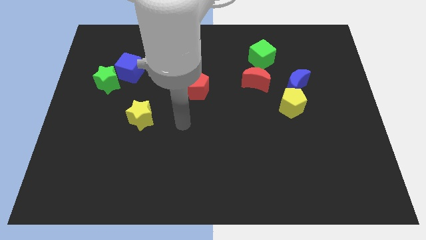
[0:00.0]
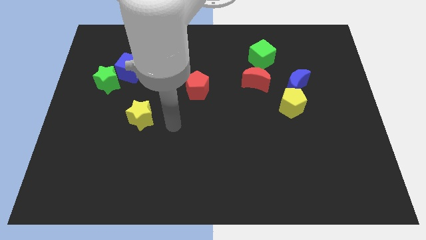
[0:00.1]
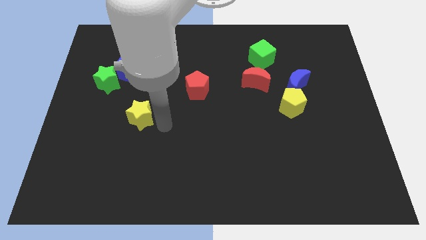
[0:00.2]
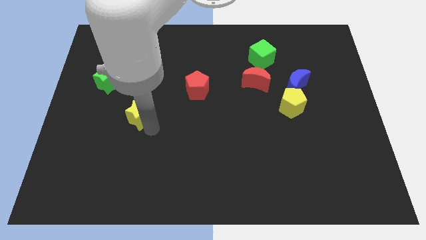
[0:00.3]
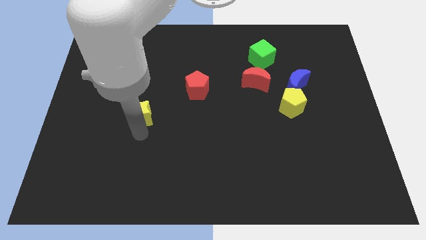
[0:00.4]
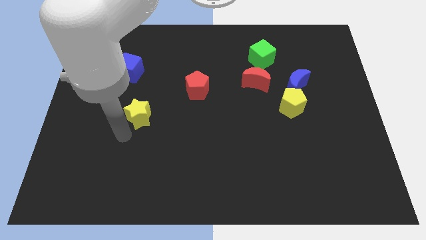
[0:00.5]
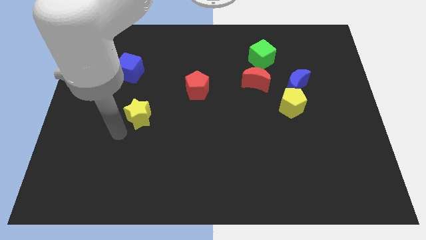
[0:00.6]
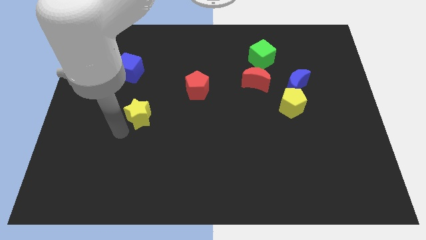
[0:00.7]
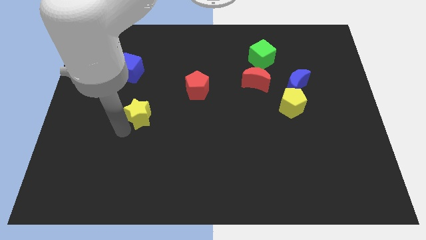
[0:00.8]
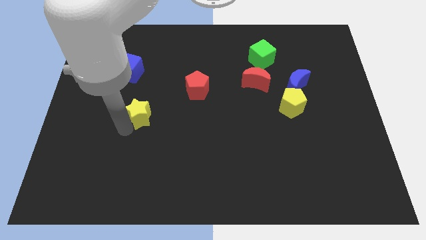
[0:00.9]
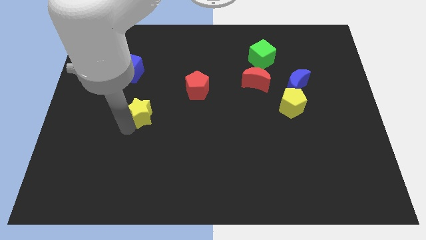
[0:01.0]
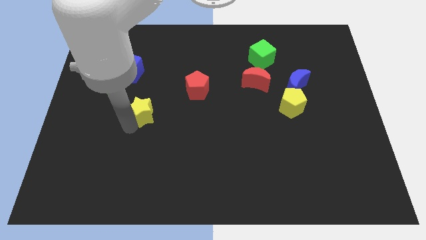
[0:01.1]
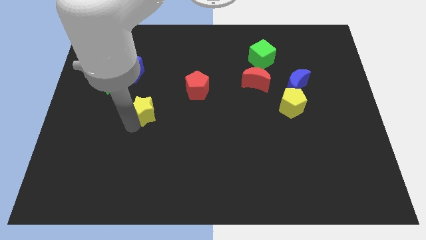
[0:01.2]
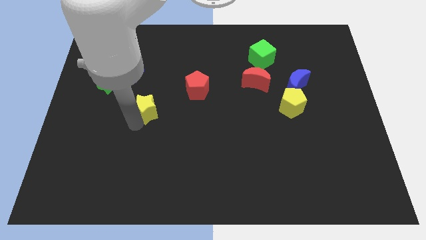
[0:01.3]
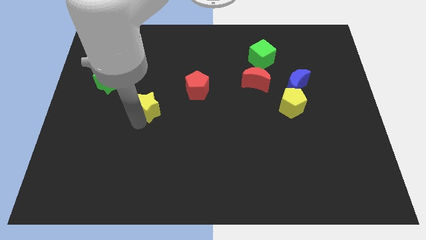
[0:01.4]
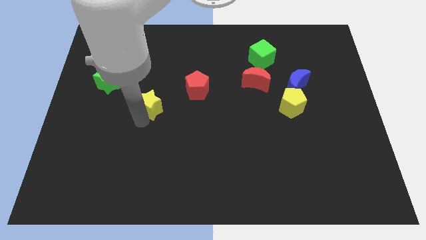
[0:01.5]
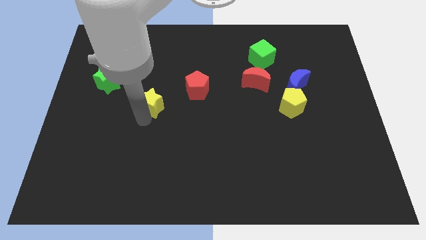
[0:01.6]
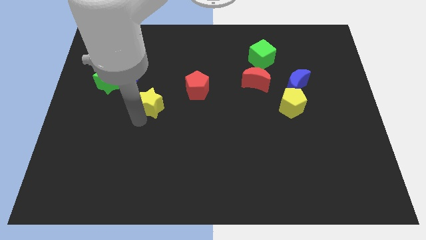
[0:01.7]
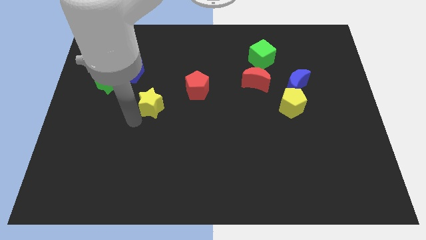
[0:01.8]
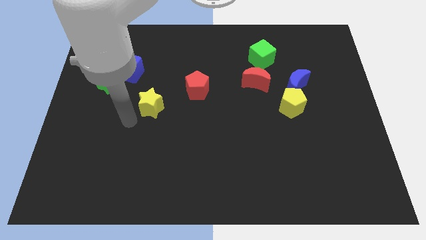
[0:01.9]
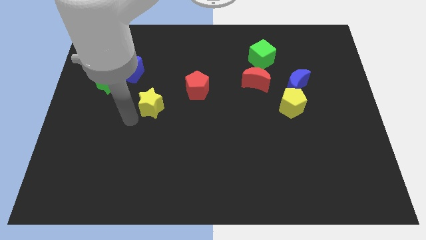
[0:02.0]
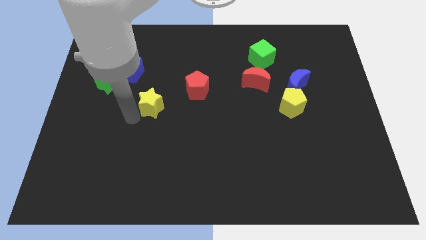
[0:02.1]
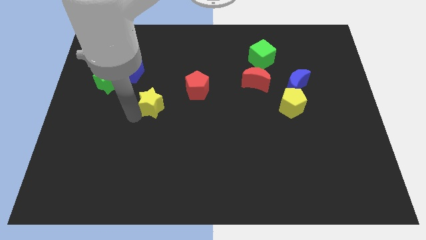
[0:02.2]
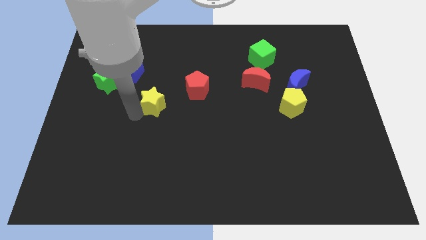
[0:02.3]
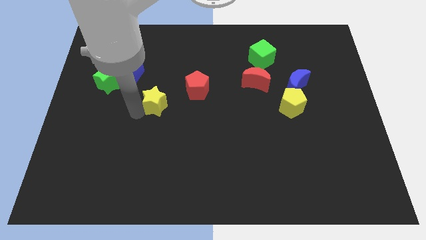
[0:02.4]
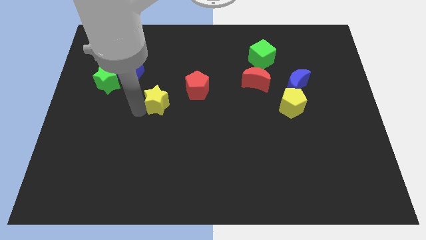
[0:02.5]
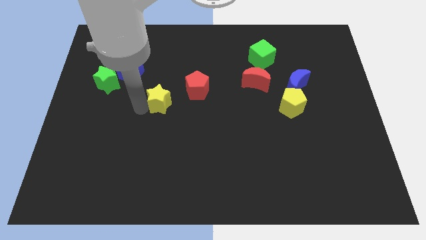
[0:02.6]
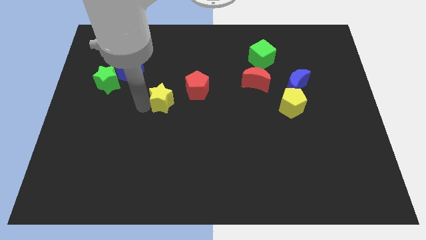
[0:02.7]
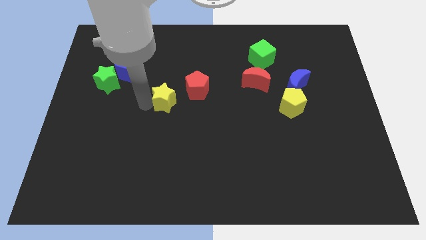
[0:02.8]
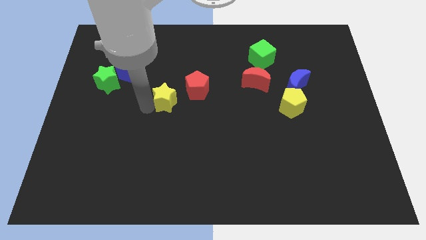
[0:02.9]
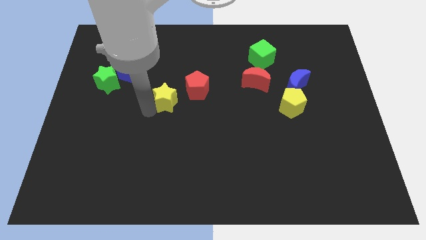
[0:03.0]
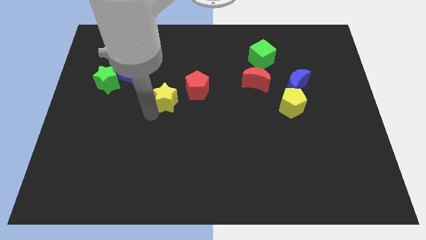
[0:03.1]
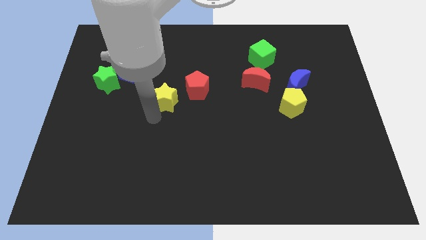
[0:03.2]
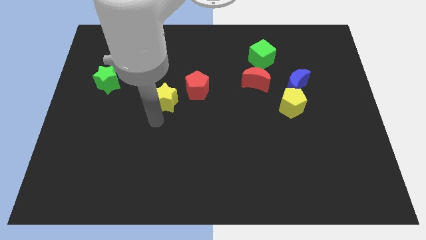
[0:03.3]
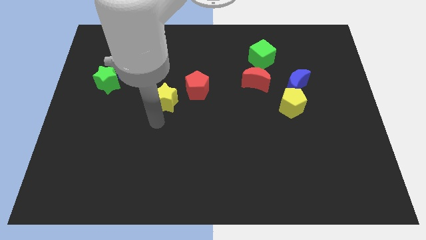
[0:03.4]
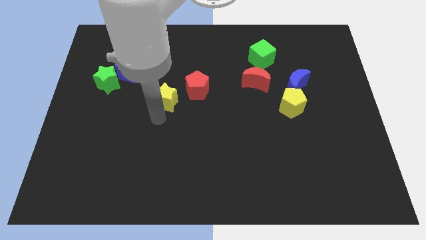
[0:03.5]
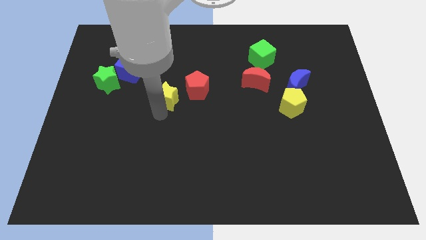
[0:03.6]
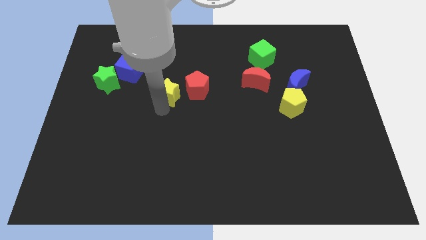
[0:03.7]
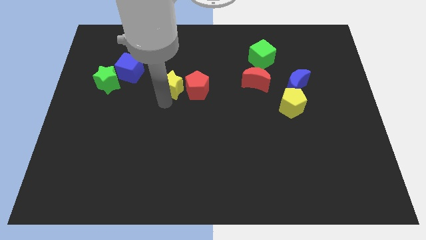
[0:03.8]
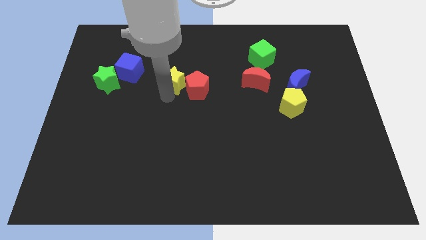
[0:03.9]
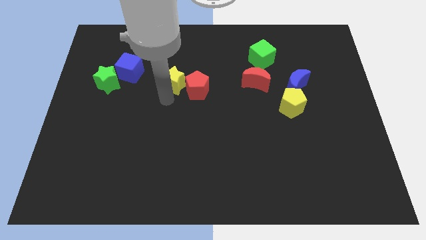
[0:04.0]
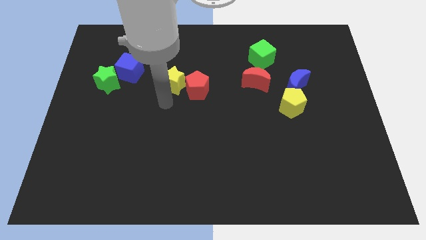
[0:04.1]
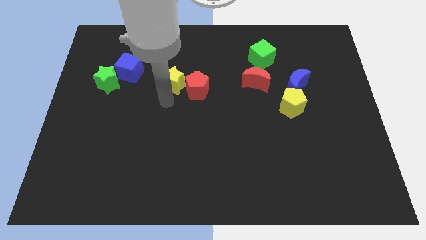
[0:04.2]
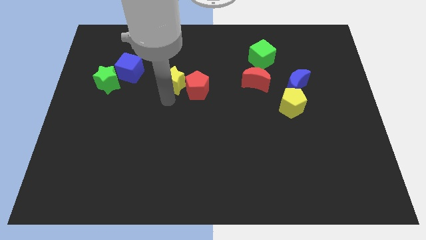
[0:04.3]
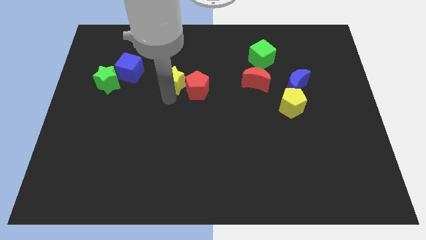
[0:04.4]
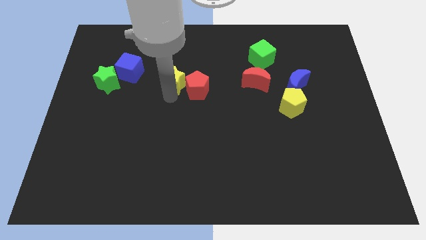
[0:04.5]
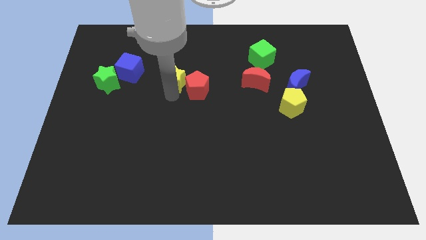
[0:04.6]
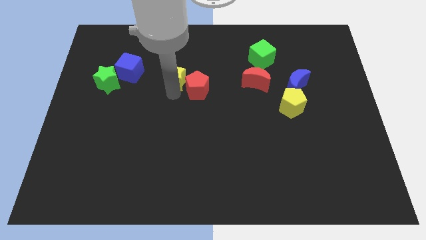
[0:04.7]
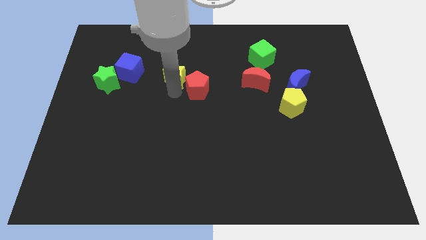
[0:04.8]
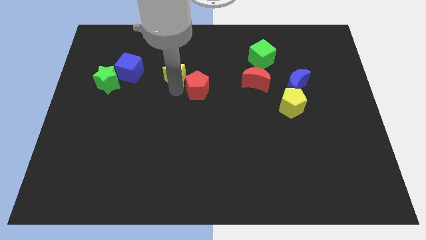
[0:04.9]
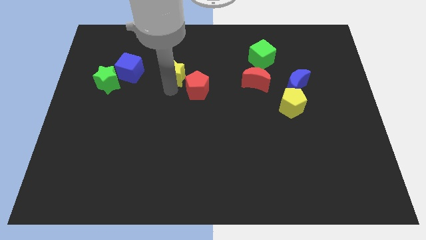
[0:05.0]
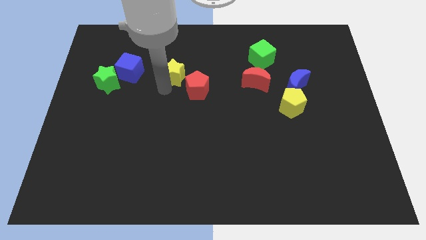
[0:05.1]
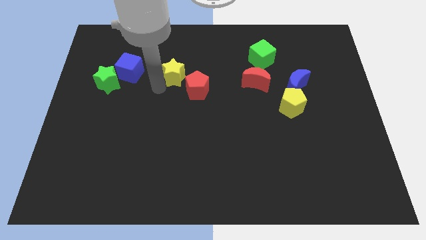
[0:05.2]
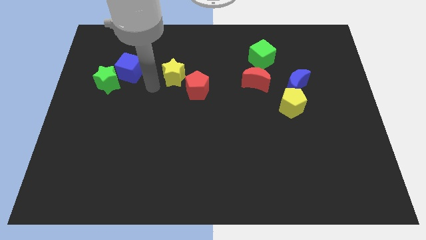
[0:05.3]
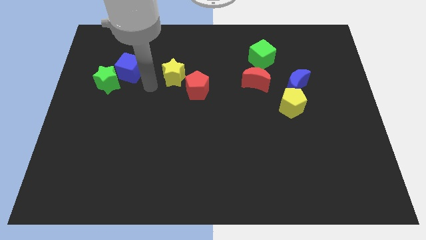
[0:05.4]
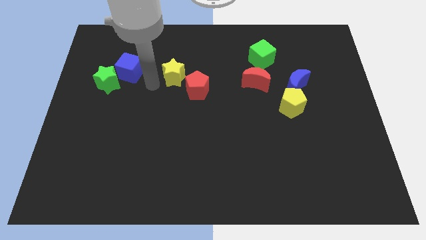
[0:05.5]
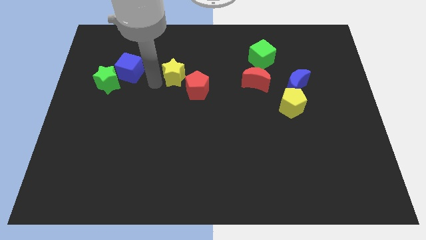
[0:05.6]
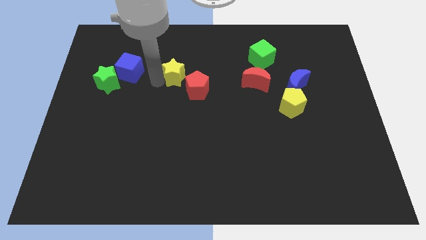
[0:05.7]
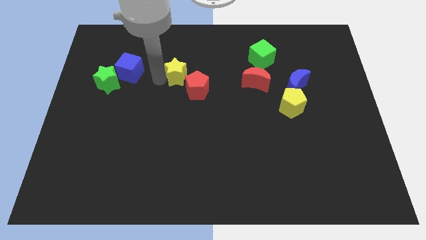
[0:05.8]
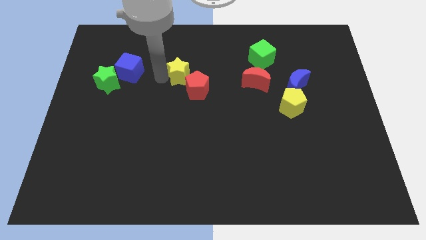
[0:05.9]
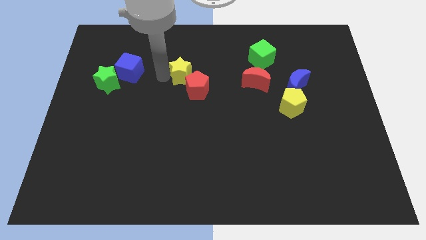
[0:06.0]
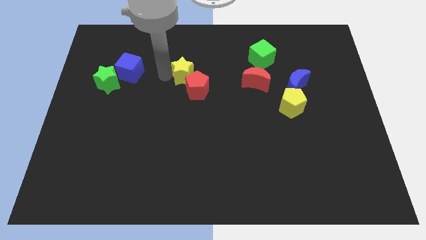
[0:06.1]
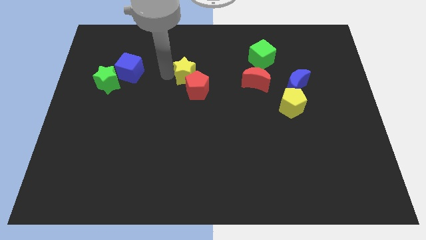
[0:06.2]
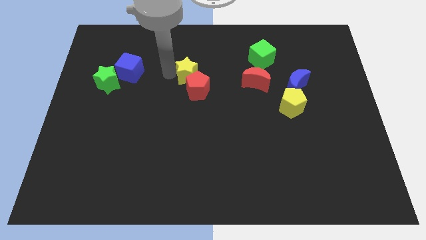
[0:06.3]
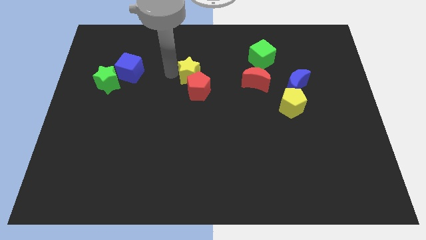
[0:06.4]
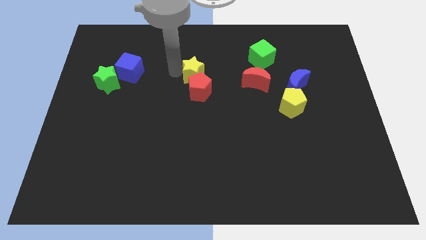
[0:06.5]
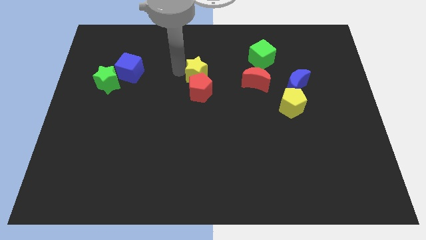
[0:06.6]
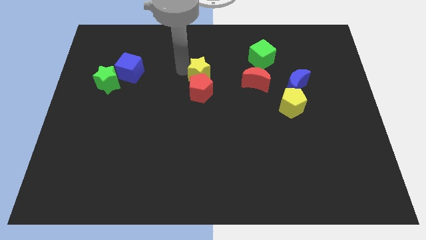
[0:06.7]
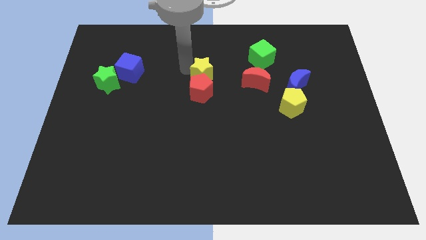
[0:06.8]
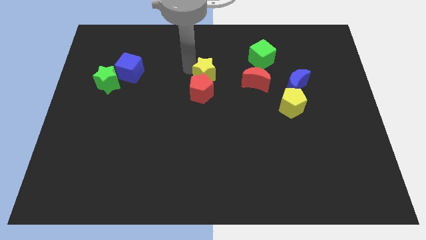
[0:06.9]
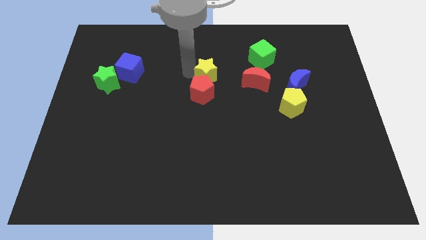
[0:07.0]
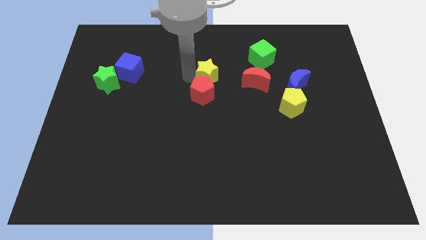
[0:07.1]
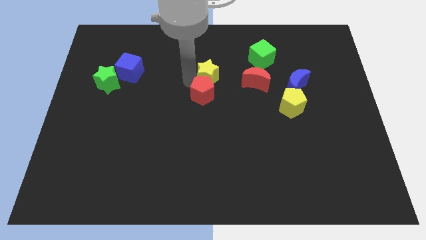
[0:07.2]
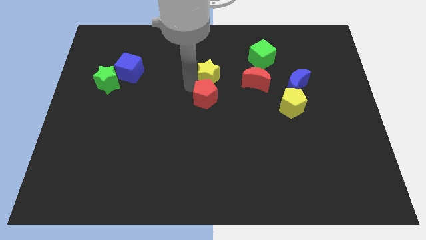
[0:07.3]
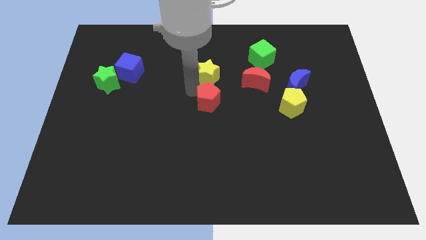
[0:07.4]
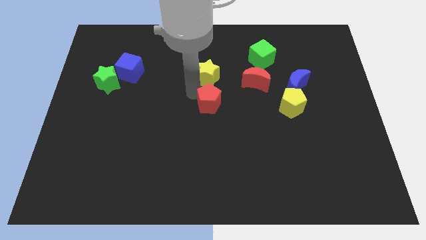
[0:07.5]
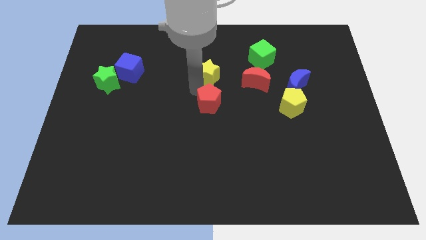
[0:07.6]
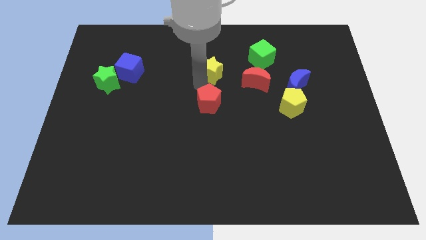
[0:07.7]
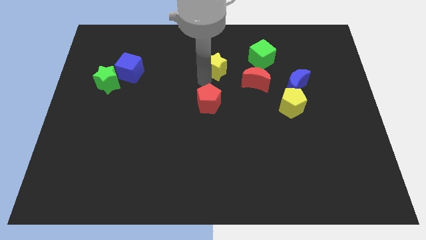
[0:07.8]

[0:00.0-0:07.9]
move the yellow star to the left side of the green cube
